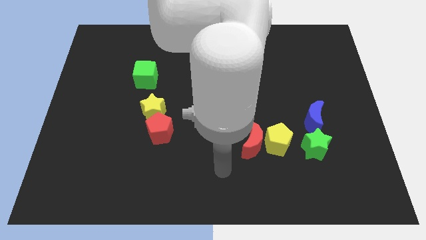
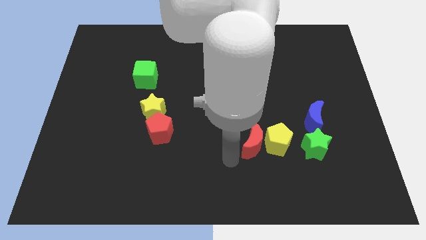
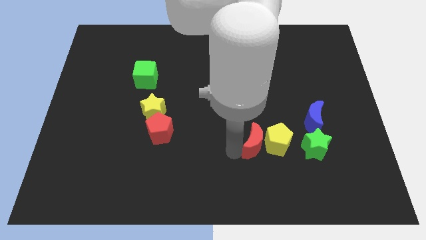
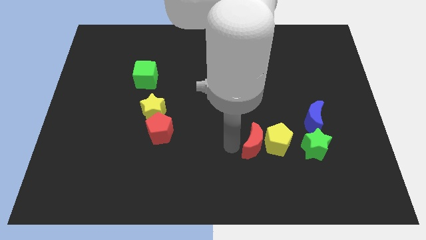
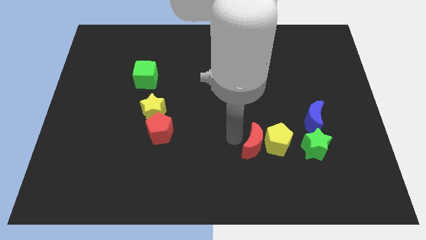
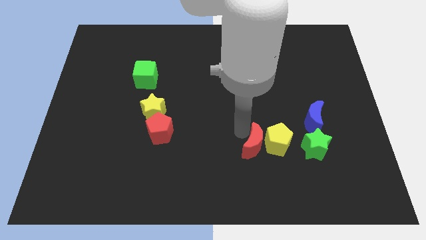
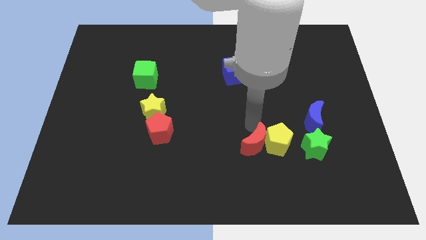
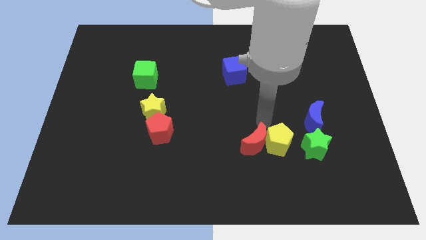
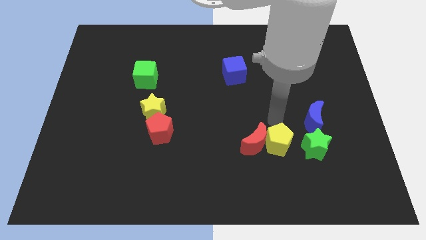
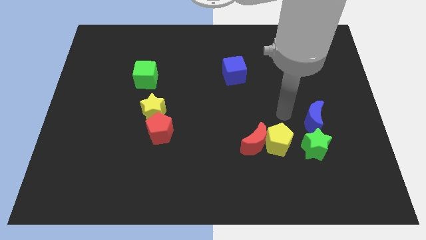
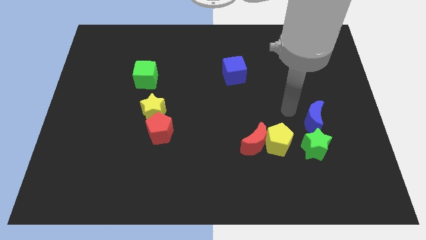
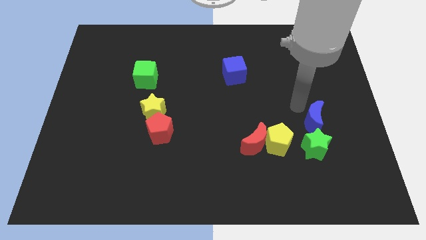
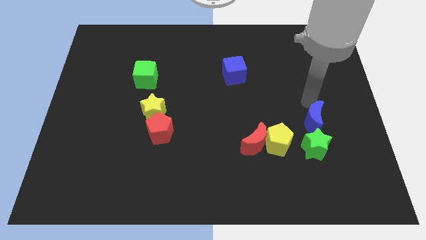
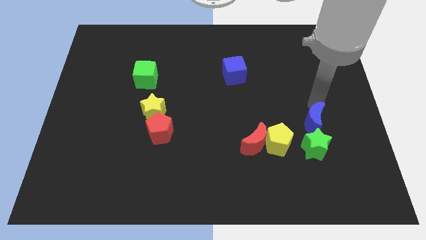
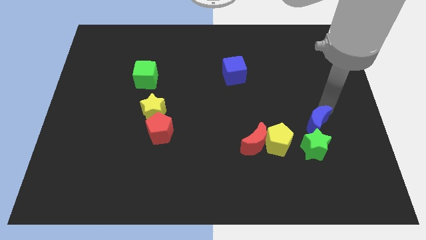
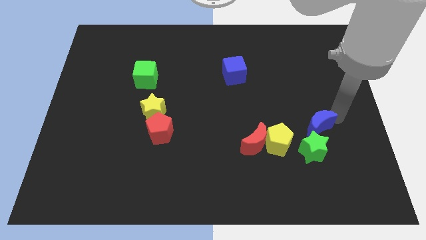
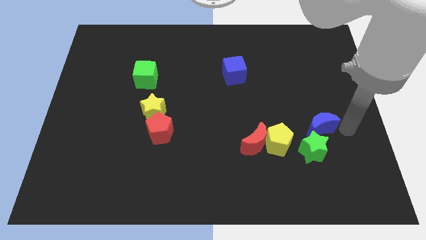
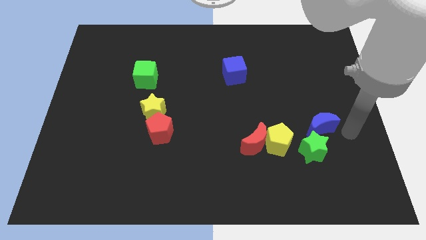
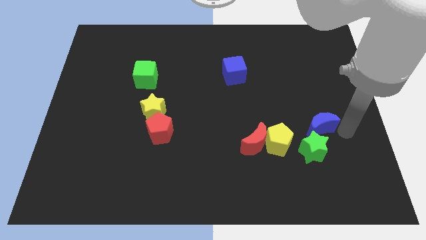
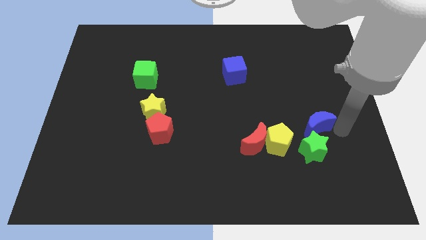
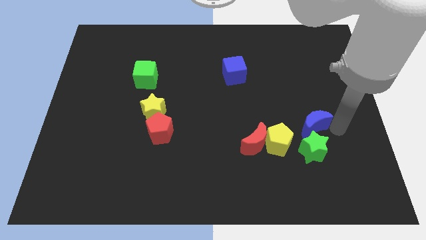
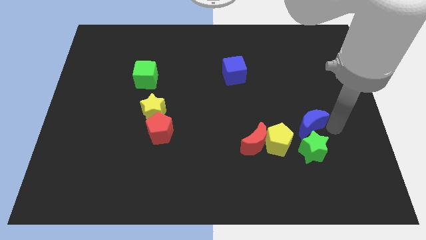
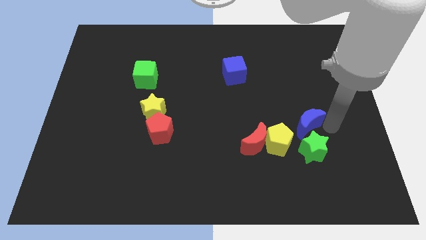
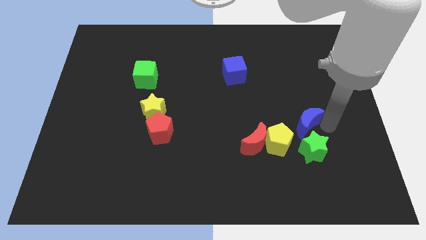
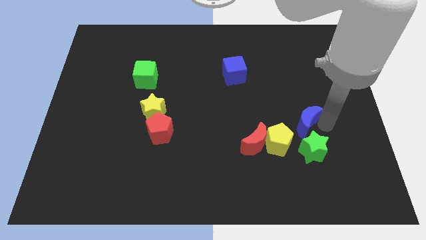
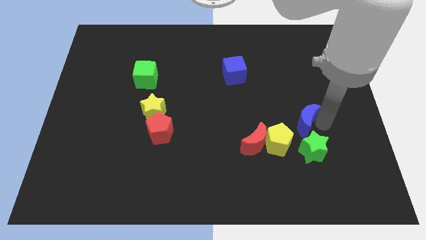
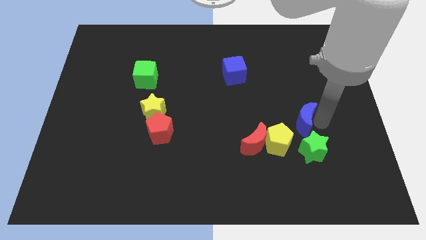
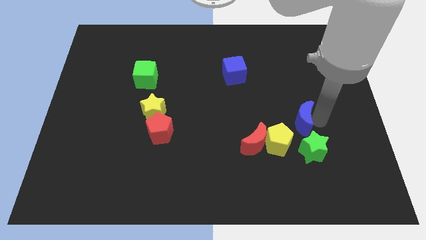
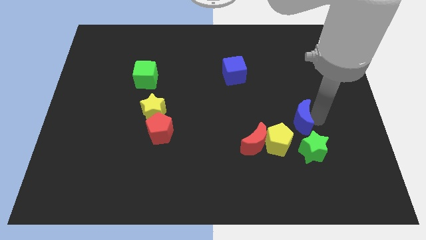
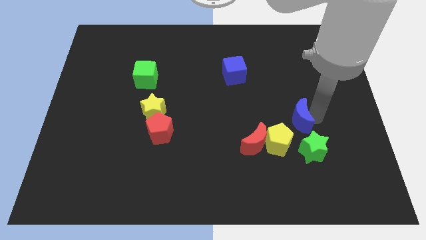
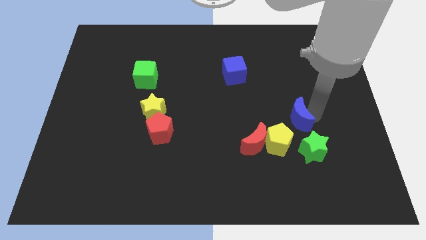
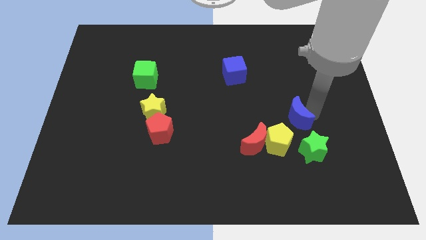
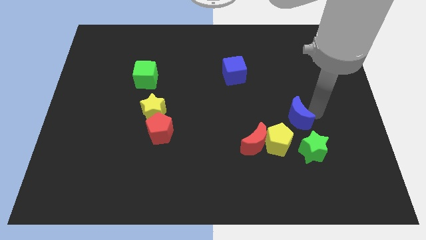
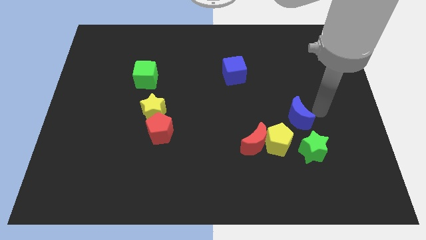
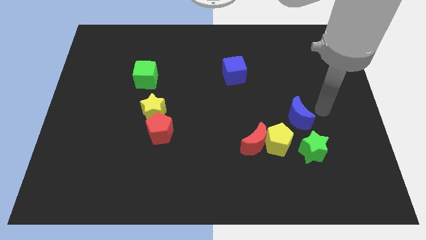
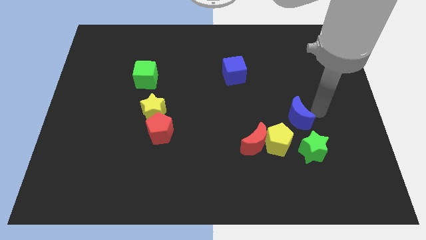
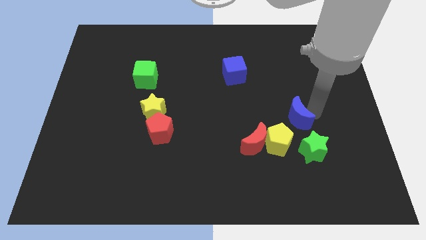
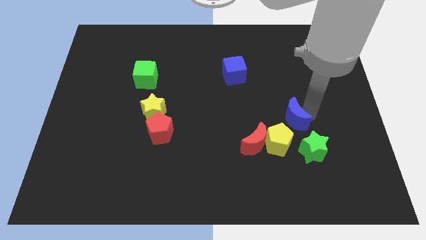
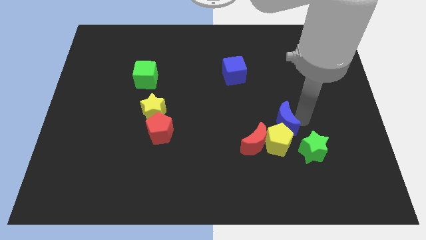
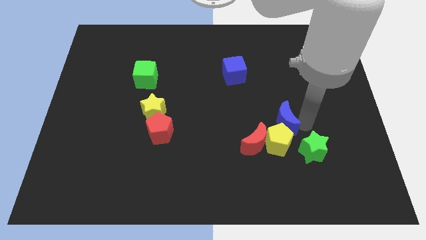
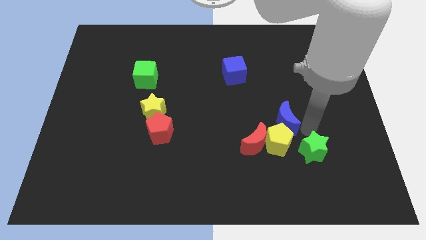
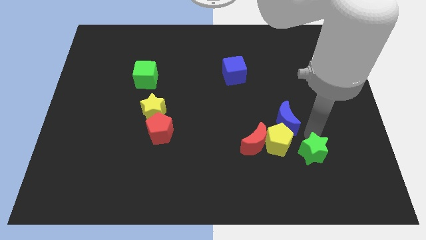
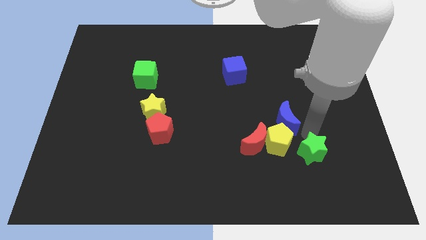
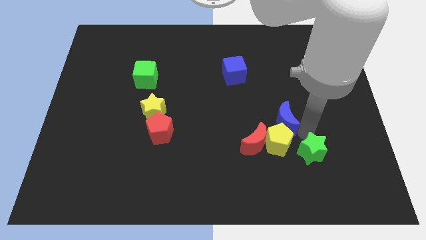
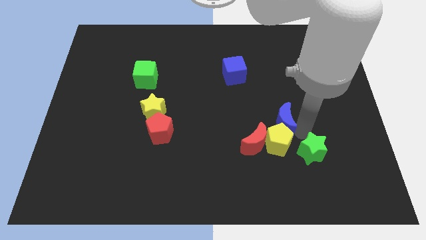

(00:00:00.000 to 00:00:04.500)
slightly slide the blue moon left

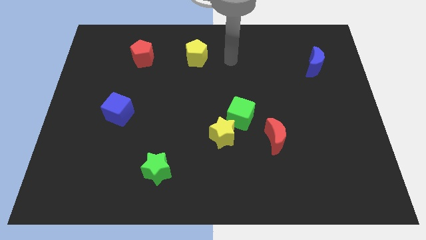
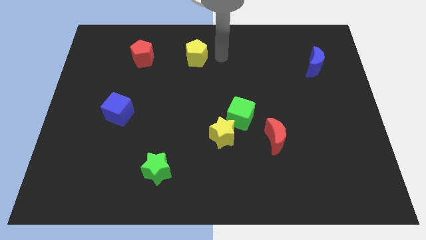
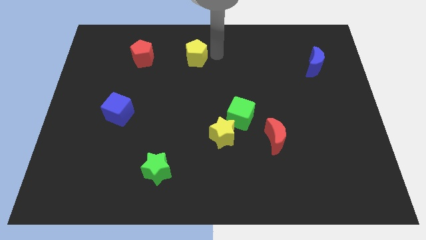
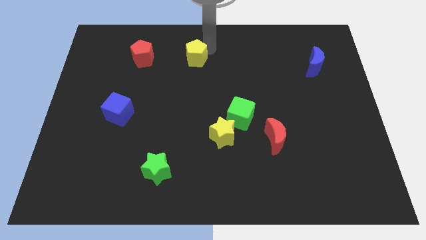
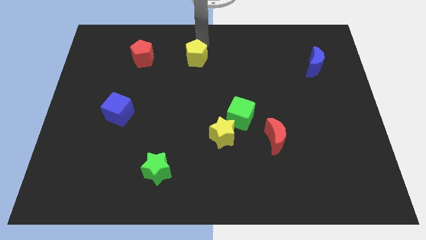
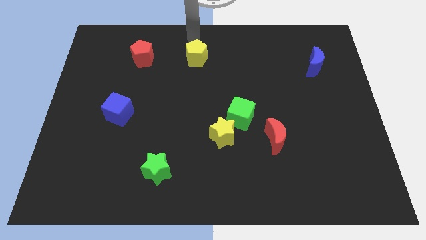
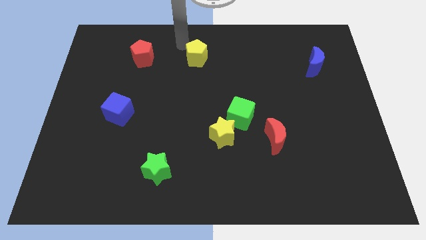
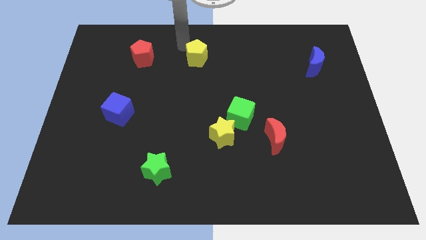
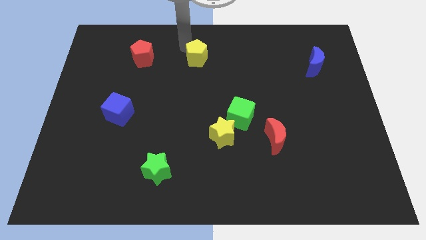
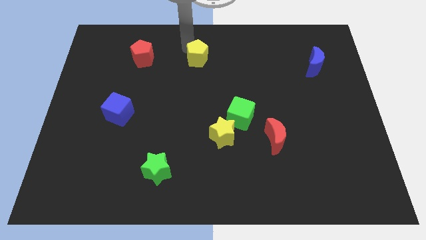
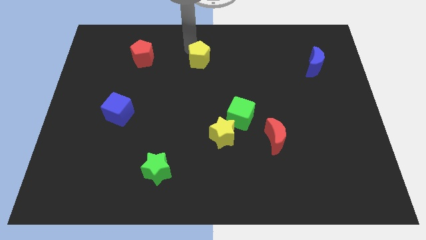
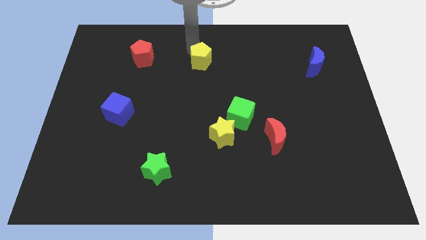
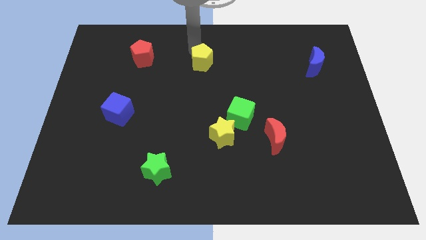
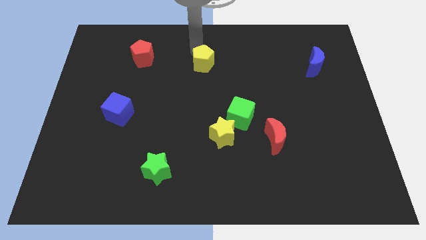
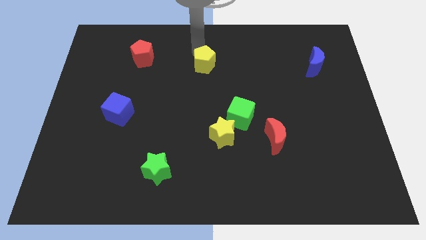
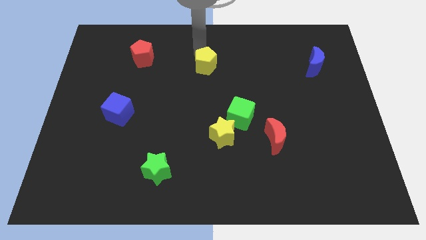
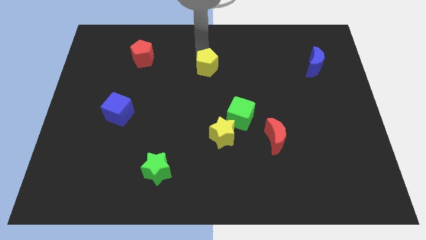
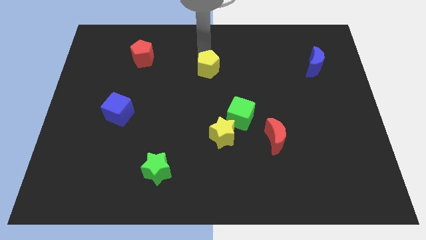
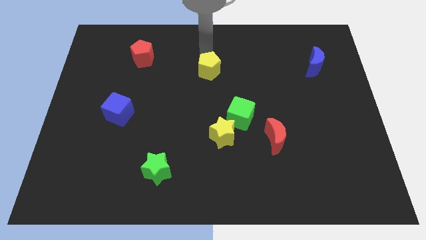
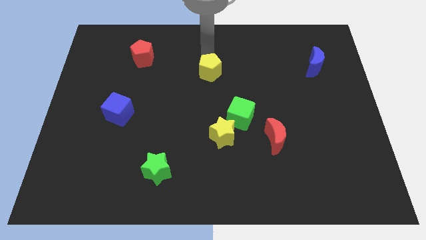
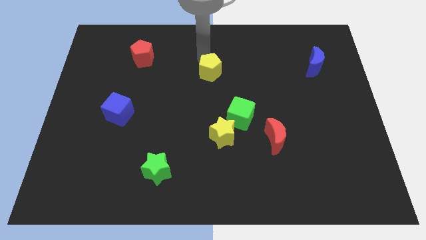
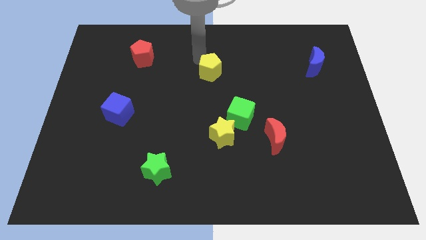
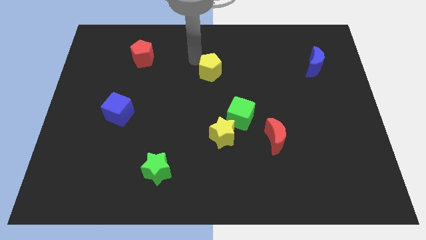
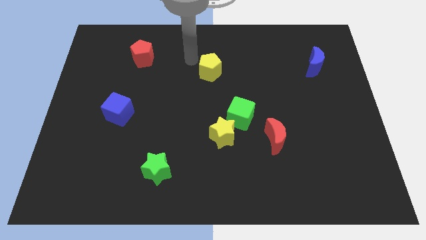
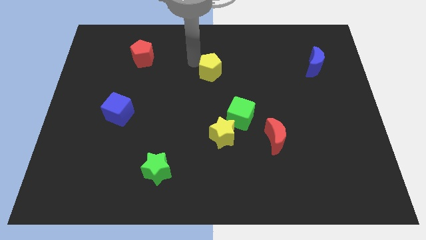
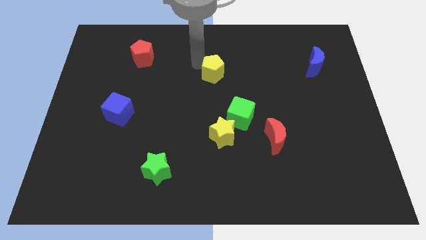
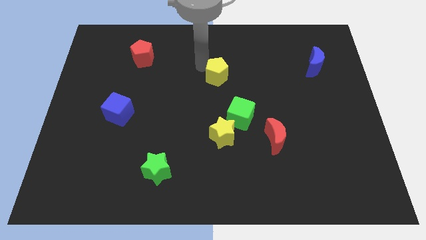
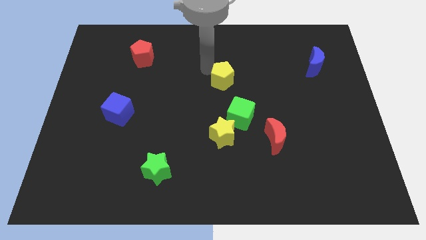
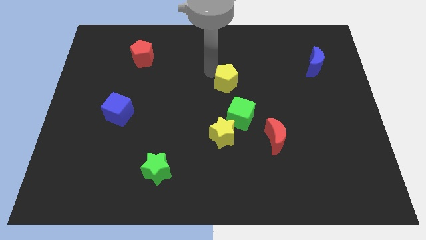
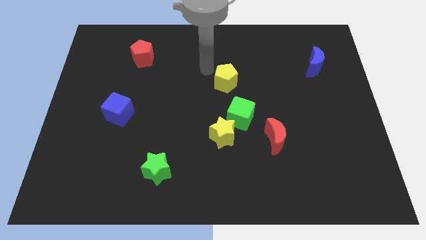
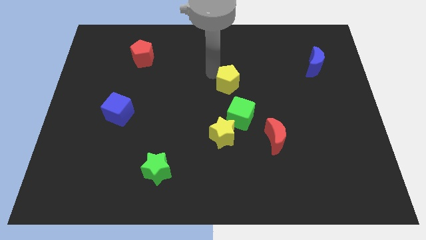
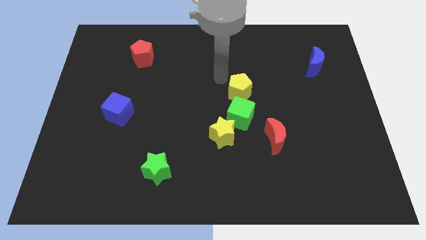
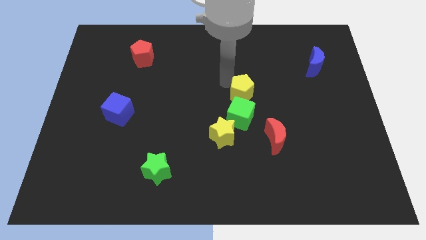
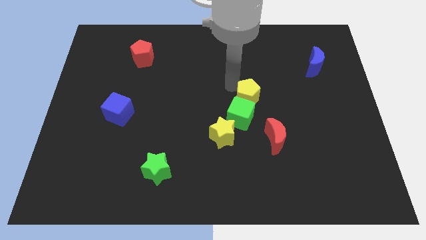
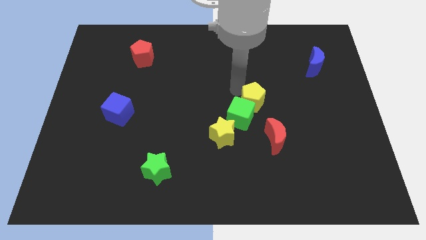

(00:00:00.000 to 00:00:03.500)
move the yellow pentagon down and right
